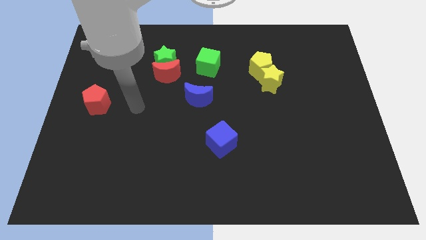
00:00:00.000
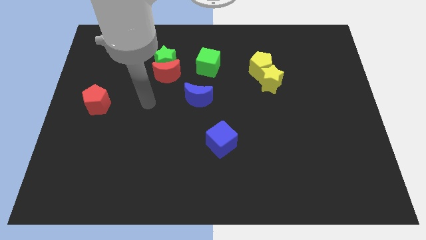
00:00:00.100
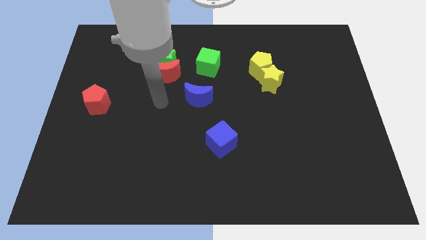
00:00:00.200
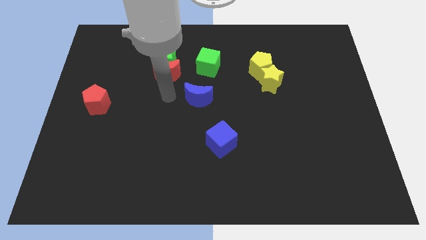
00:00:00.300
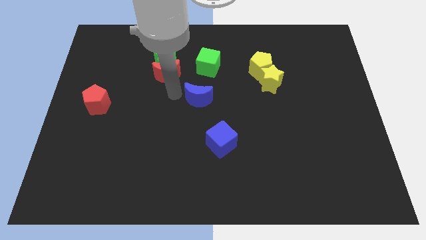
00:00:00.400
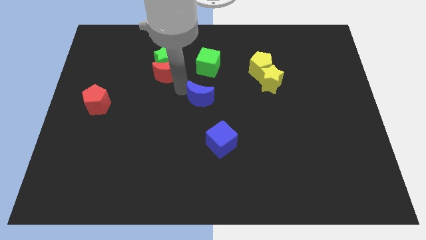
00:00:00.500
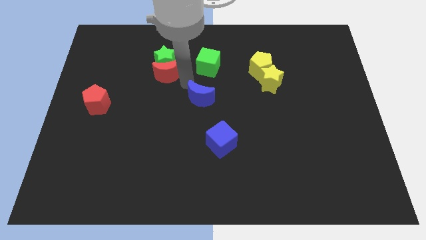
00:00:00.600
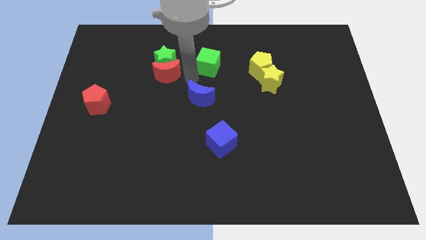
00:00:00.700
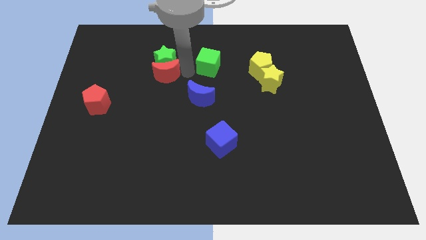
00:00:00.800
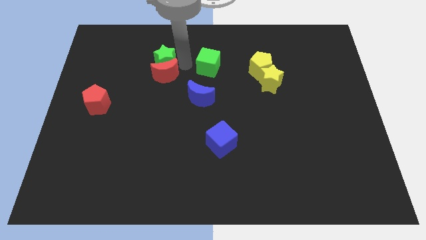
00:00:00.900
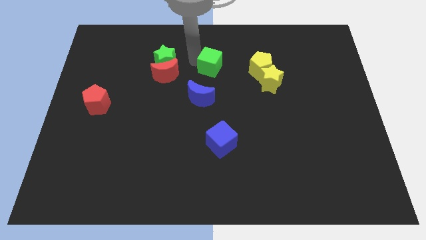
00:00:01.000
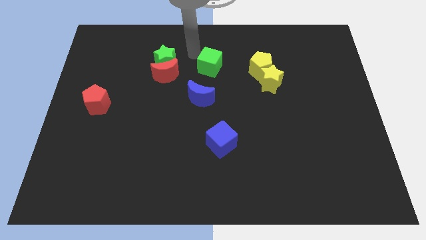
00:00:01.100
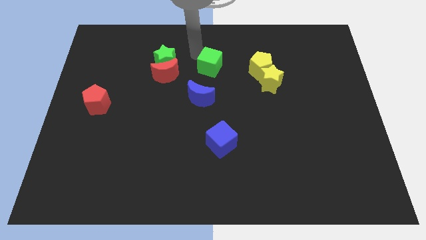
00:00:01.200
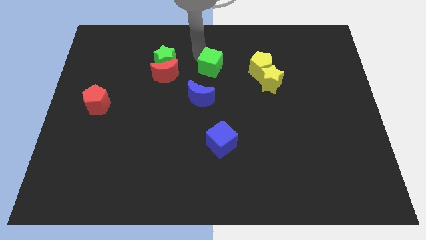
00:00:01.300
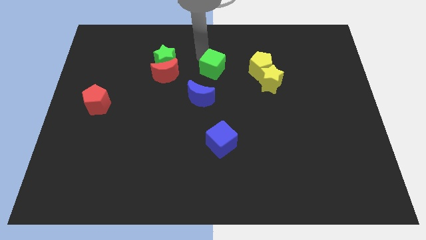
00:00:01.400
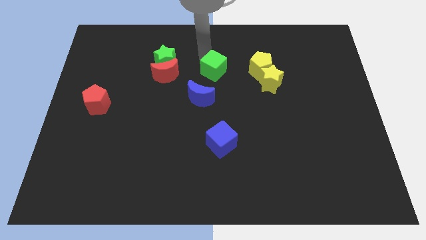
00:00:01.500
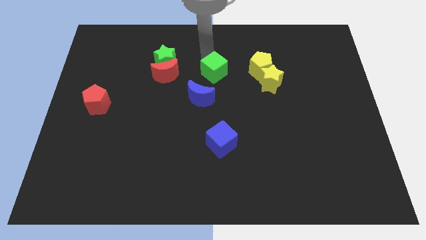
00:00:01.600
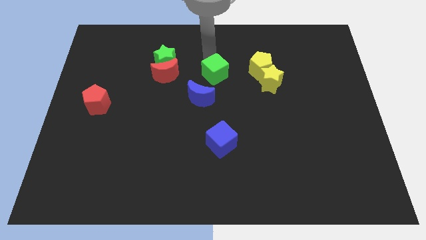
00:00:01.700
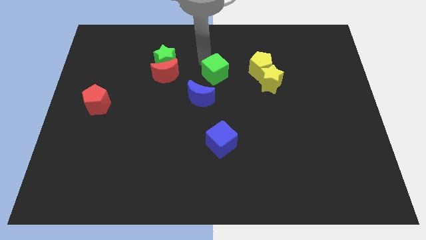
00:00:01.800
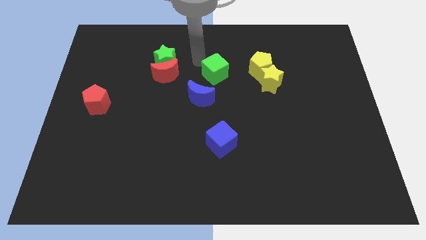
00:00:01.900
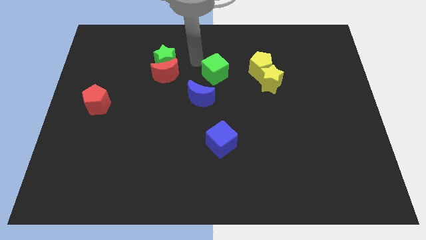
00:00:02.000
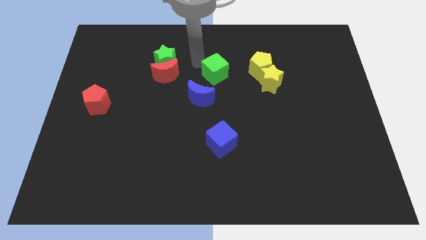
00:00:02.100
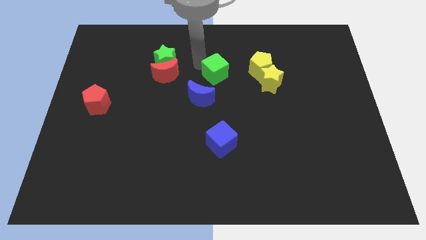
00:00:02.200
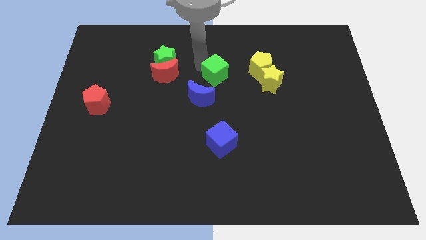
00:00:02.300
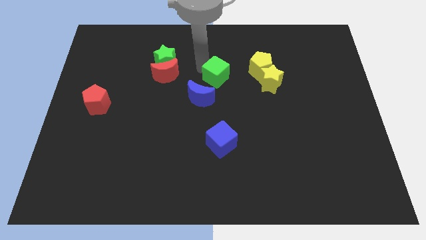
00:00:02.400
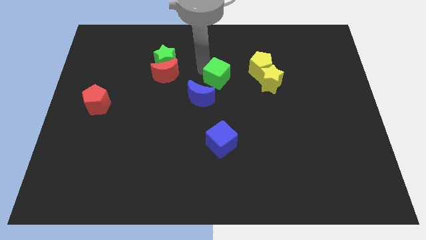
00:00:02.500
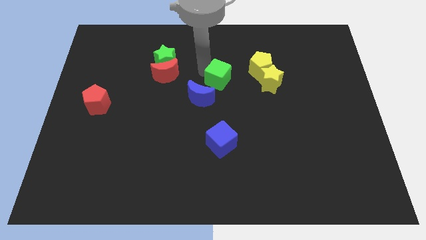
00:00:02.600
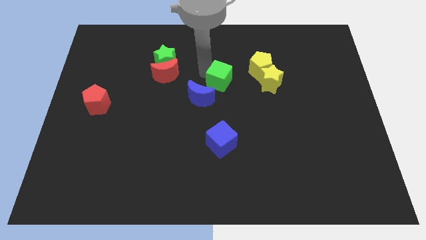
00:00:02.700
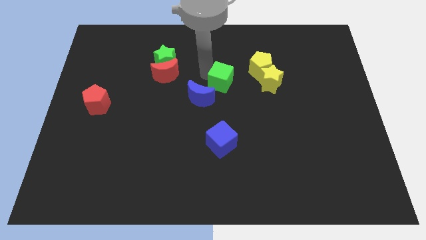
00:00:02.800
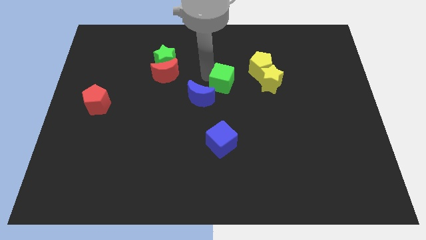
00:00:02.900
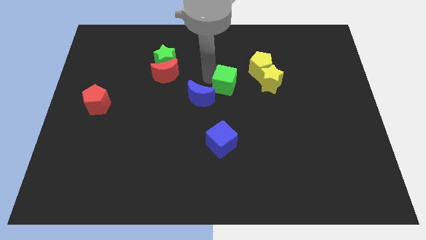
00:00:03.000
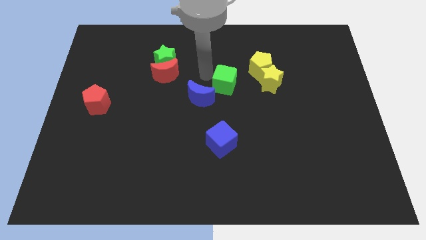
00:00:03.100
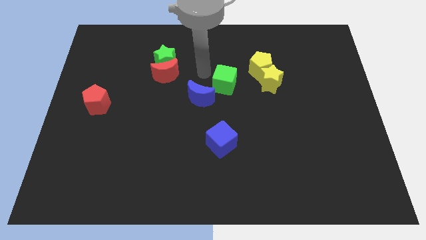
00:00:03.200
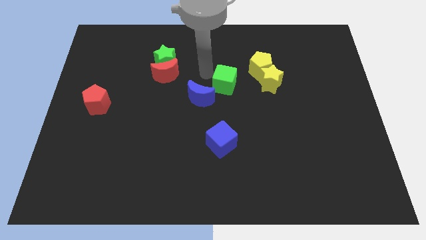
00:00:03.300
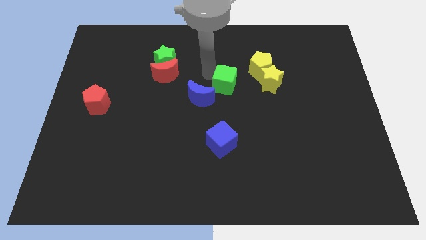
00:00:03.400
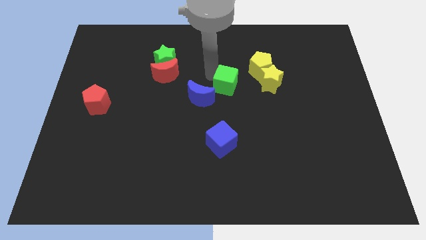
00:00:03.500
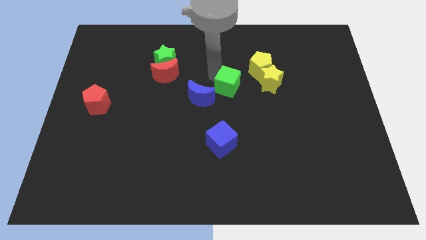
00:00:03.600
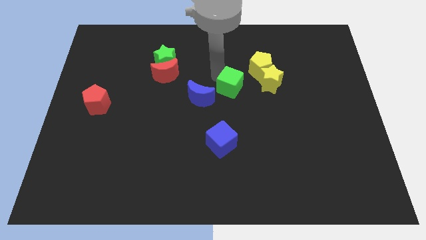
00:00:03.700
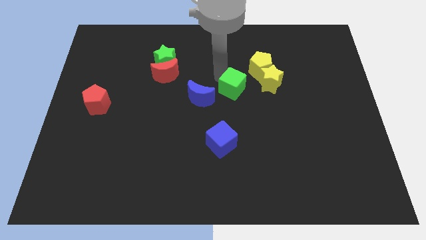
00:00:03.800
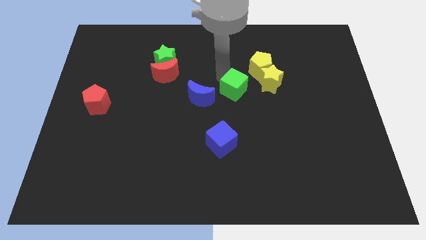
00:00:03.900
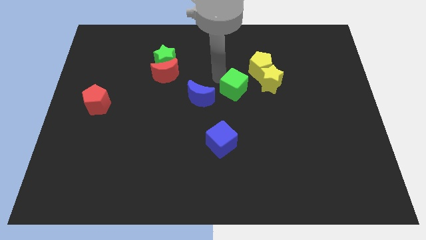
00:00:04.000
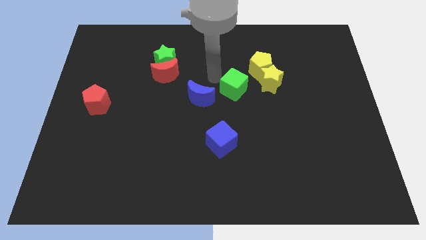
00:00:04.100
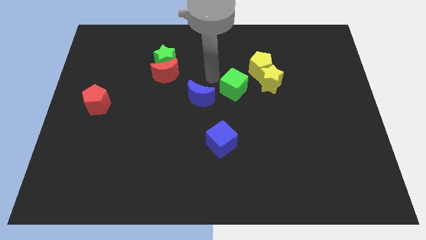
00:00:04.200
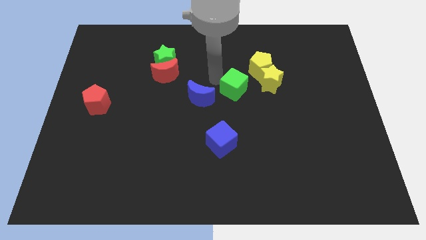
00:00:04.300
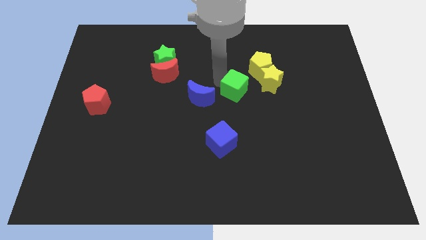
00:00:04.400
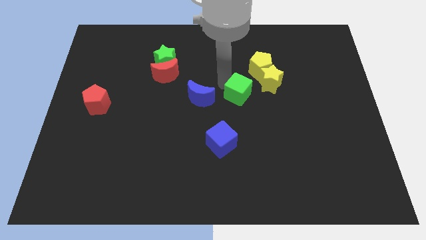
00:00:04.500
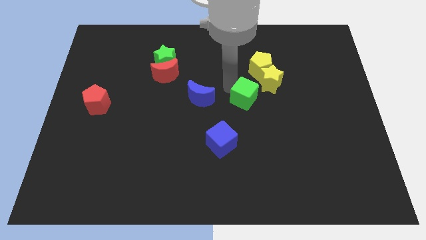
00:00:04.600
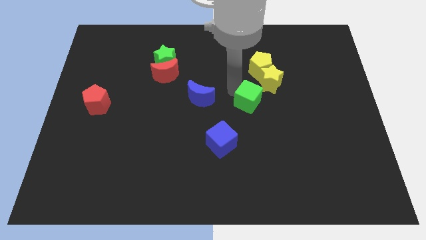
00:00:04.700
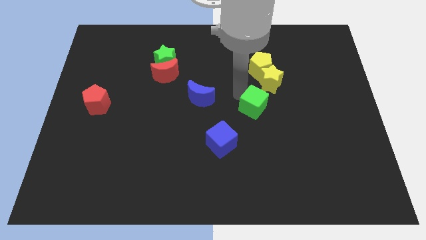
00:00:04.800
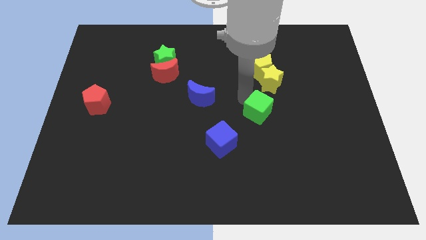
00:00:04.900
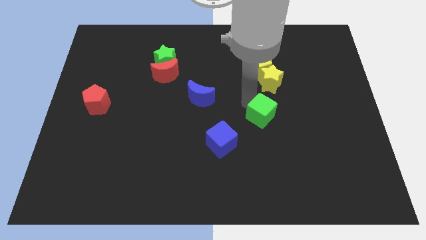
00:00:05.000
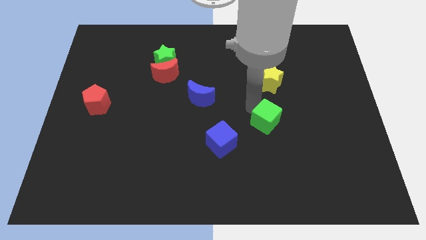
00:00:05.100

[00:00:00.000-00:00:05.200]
push the green cube downwards and to the right

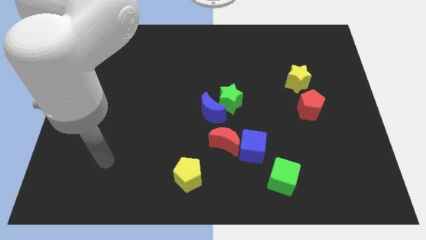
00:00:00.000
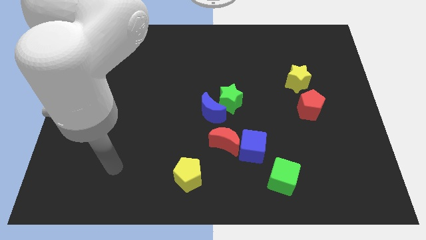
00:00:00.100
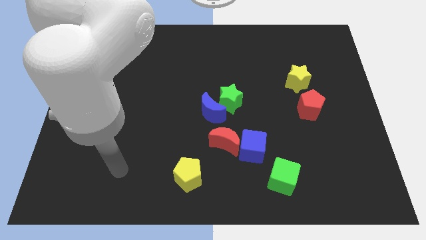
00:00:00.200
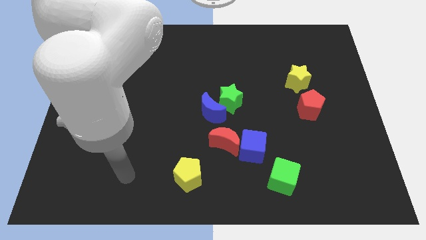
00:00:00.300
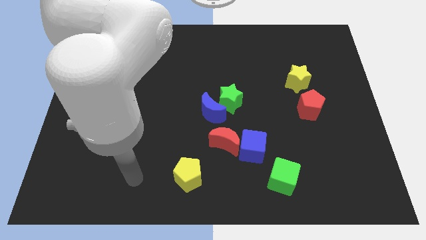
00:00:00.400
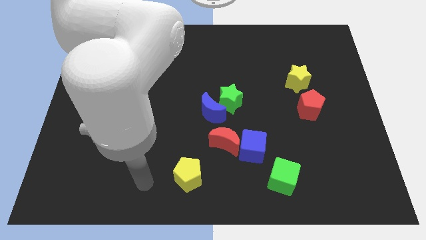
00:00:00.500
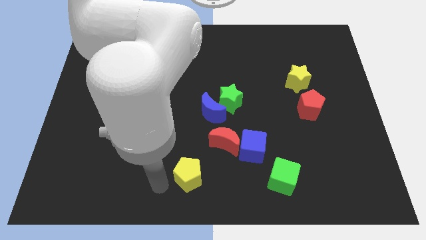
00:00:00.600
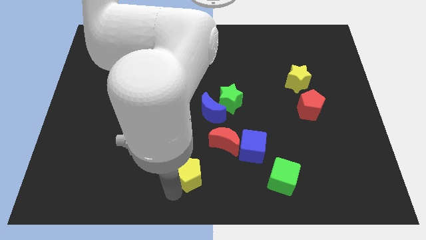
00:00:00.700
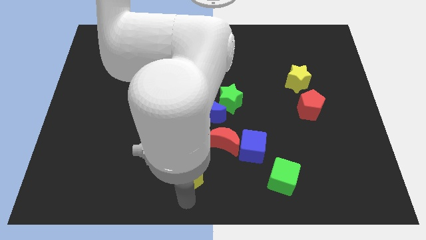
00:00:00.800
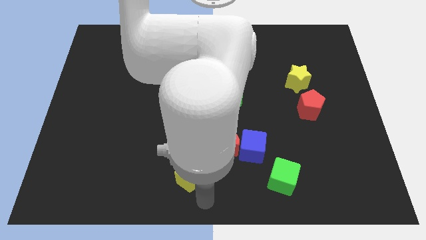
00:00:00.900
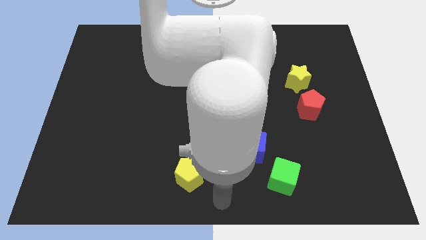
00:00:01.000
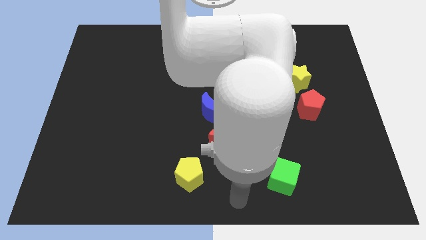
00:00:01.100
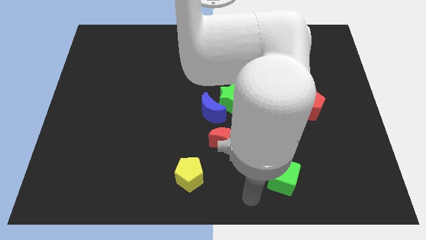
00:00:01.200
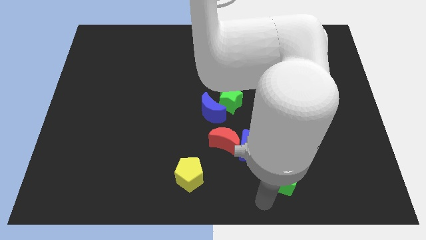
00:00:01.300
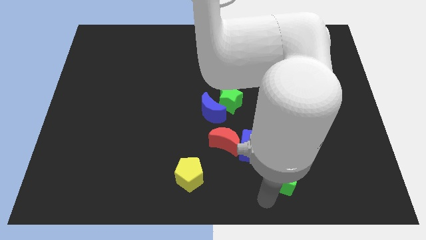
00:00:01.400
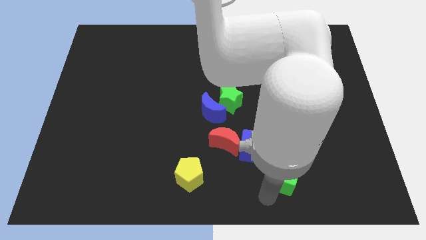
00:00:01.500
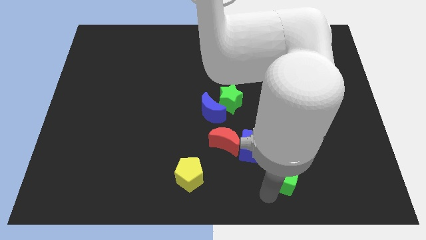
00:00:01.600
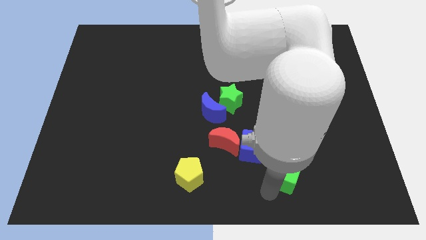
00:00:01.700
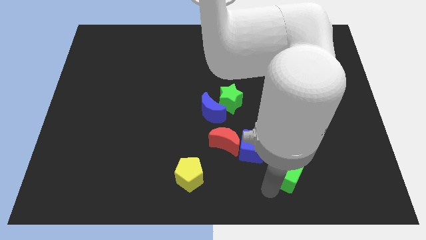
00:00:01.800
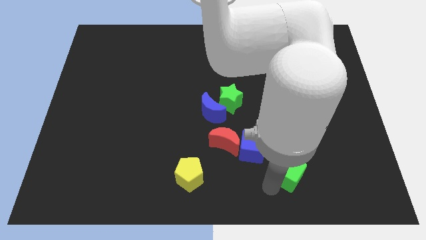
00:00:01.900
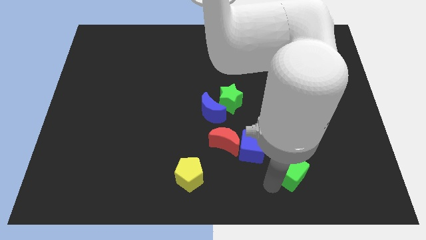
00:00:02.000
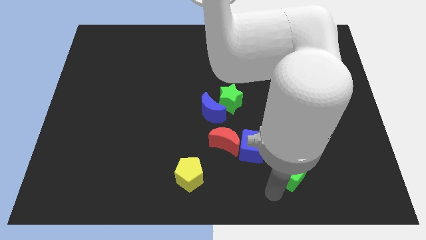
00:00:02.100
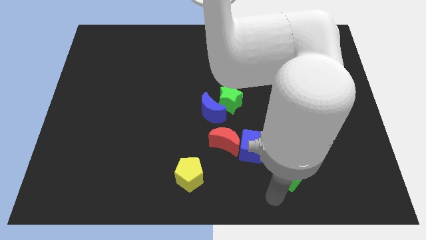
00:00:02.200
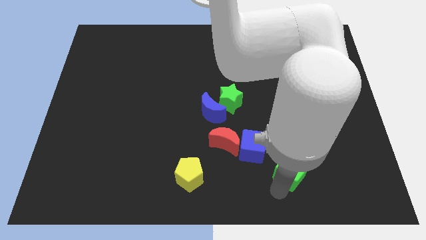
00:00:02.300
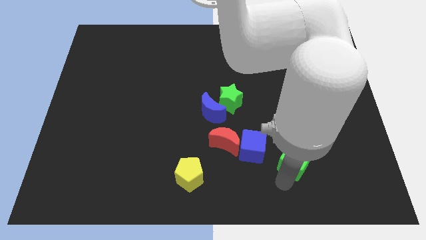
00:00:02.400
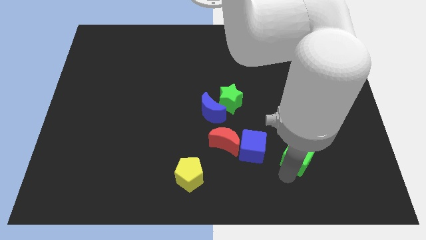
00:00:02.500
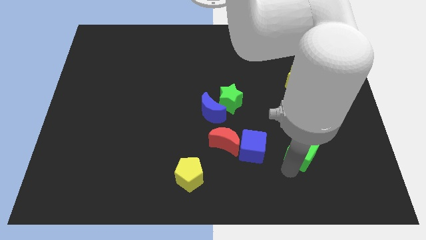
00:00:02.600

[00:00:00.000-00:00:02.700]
slightly push the green cube upwards and to the right

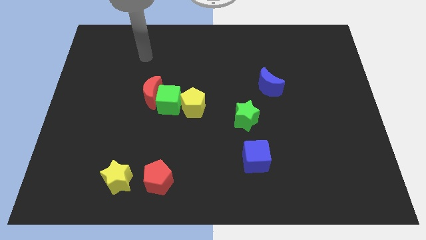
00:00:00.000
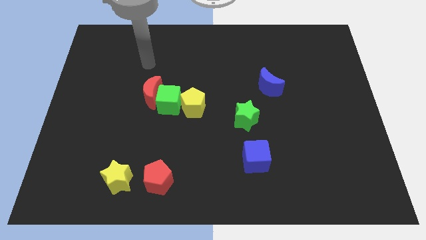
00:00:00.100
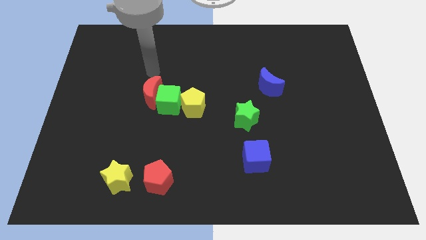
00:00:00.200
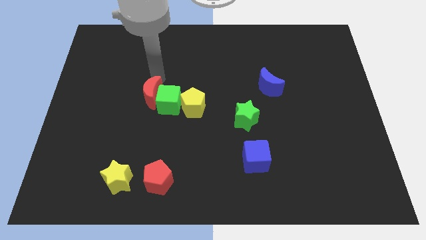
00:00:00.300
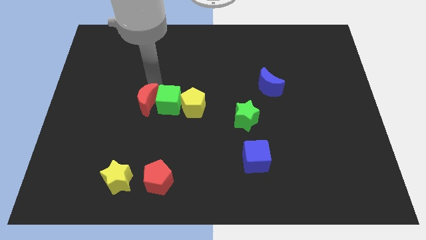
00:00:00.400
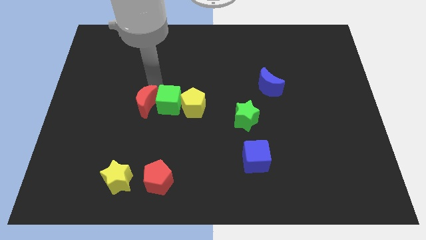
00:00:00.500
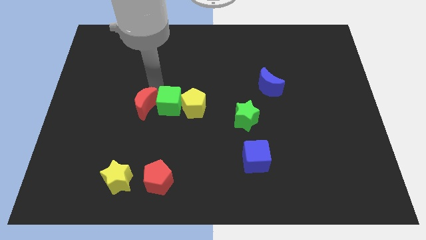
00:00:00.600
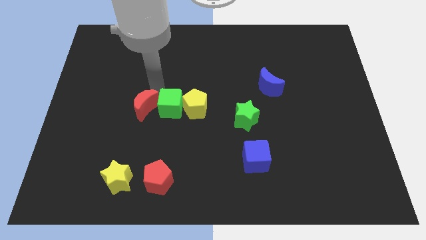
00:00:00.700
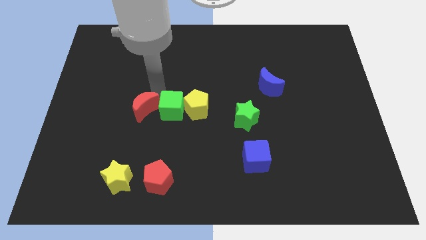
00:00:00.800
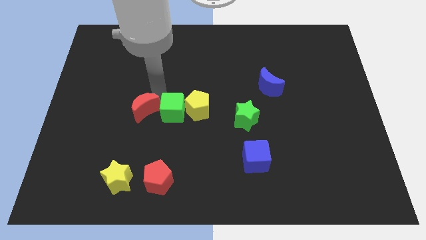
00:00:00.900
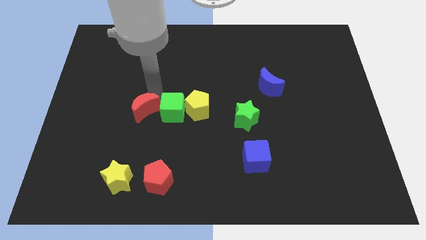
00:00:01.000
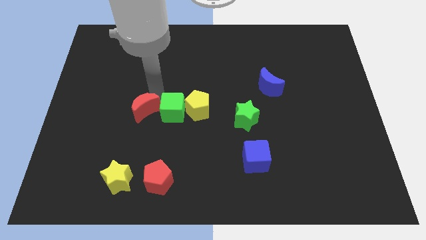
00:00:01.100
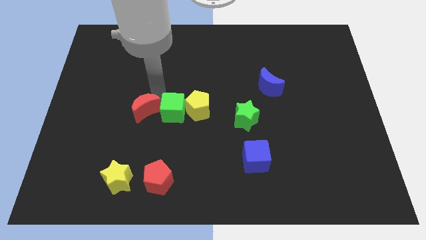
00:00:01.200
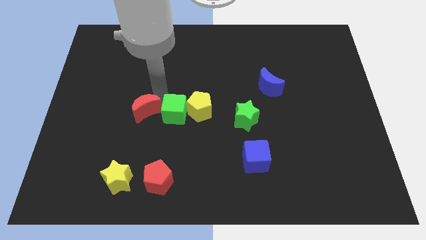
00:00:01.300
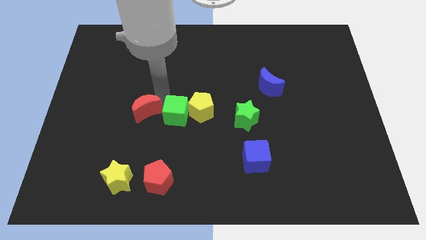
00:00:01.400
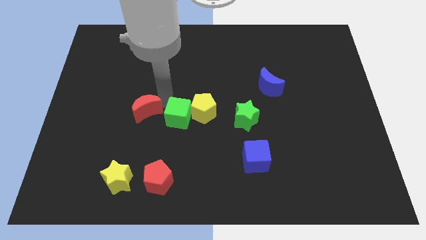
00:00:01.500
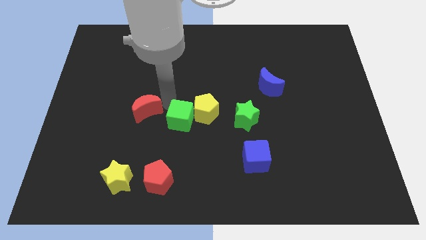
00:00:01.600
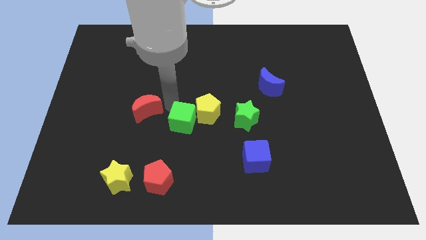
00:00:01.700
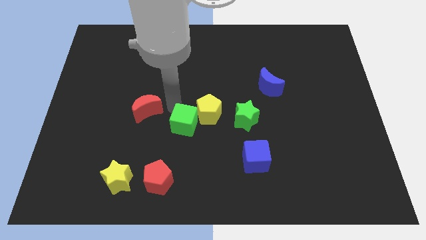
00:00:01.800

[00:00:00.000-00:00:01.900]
slightly move the green cube down and right
